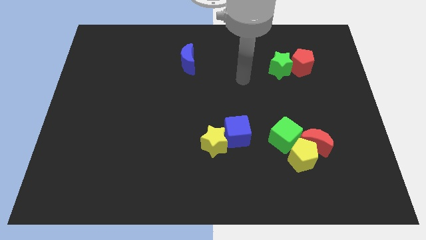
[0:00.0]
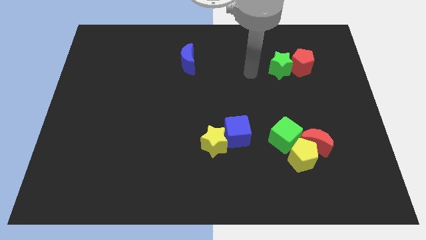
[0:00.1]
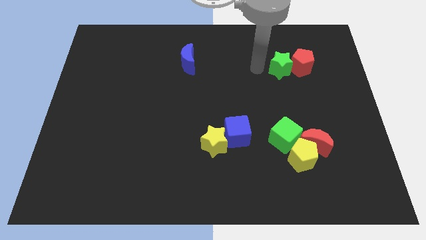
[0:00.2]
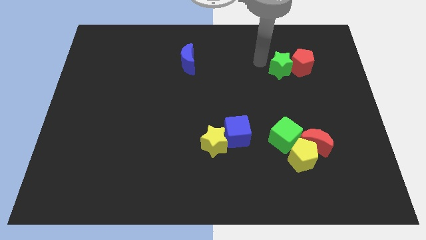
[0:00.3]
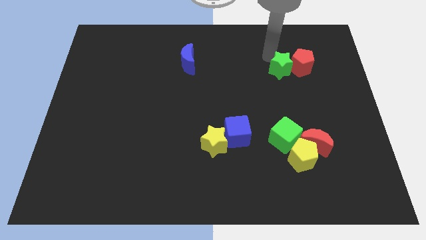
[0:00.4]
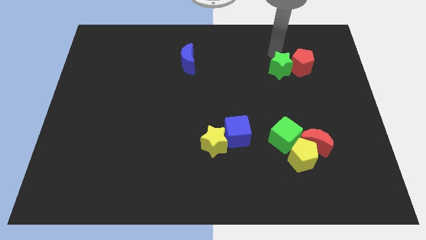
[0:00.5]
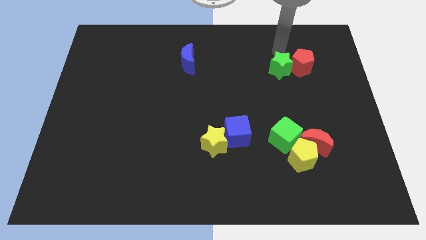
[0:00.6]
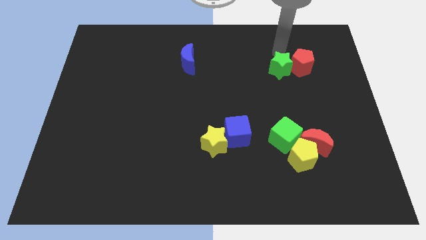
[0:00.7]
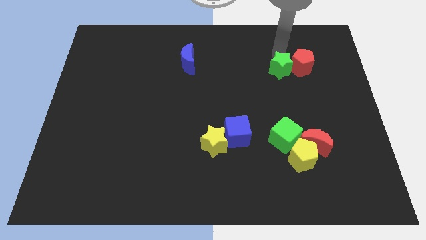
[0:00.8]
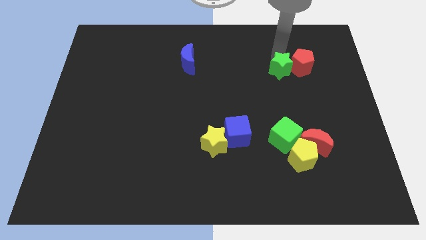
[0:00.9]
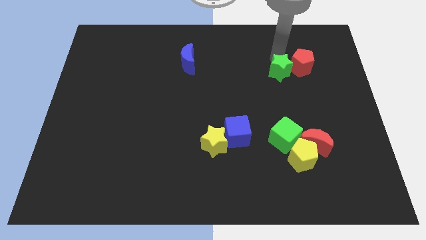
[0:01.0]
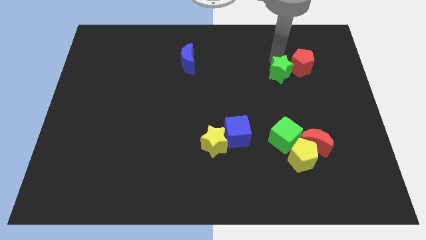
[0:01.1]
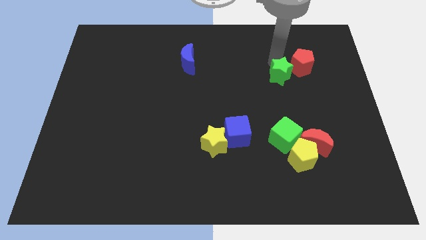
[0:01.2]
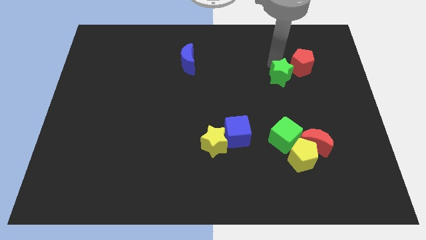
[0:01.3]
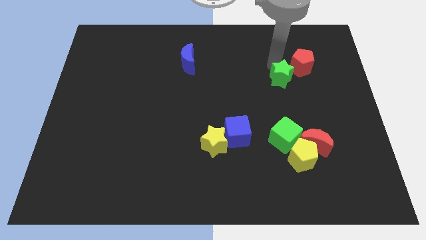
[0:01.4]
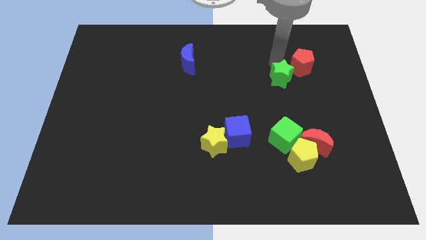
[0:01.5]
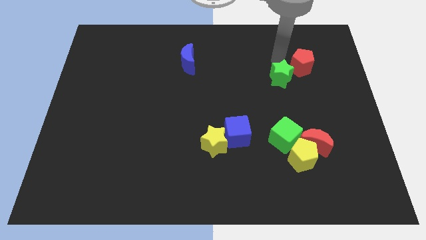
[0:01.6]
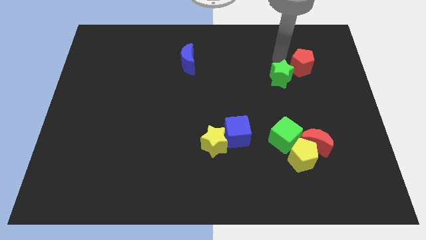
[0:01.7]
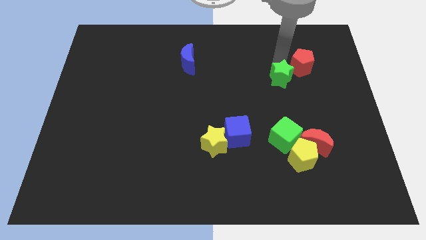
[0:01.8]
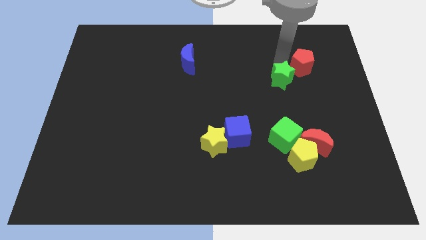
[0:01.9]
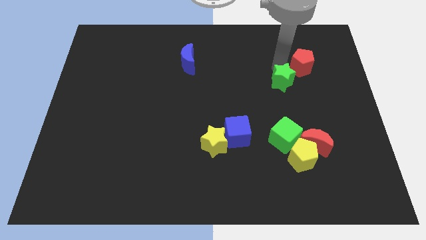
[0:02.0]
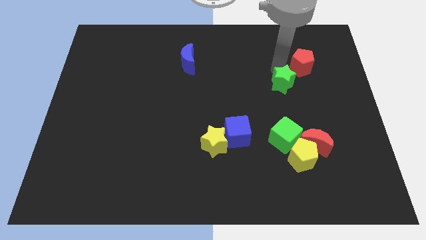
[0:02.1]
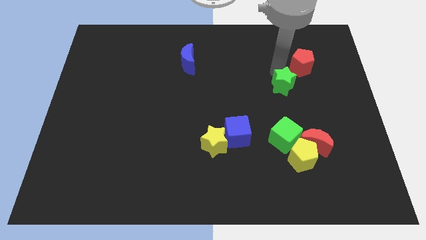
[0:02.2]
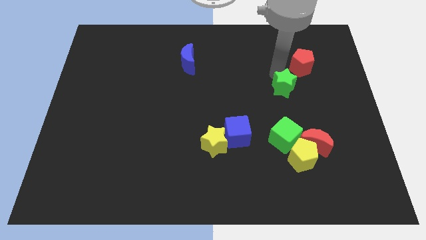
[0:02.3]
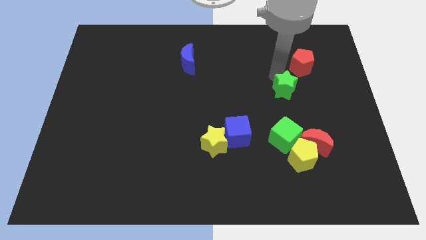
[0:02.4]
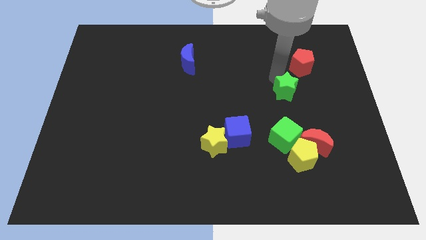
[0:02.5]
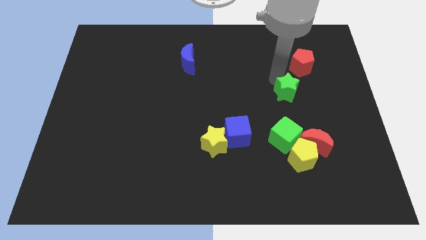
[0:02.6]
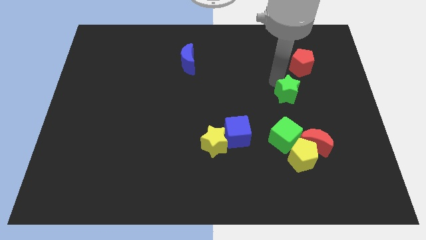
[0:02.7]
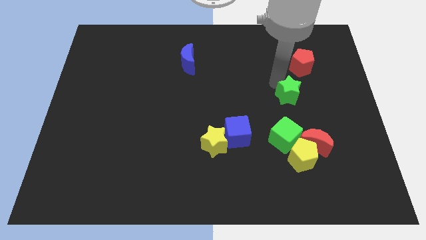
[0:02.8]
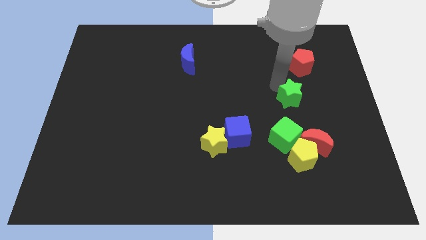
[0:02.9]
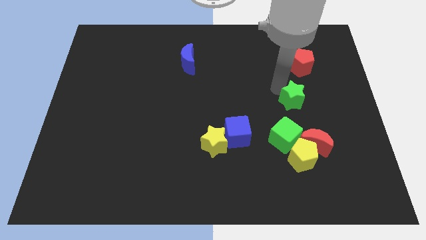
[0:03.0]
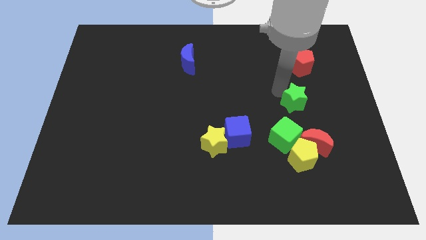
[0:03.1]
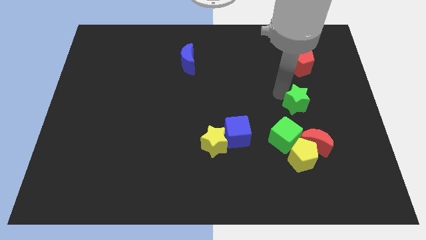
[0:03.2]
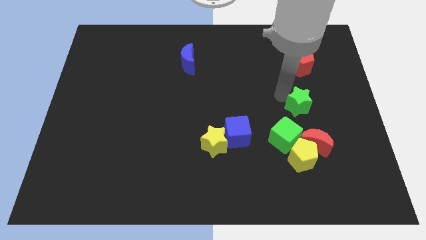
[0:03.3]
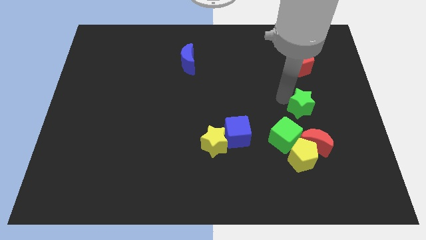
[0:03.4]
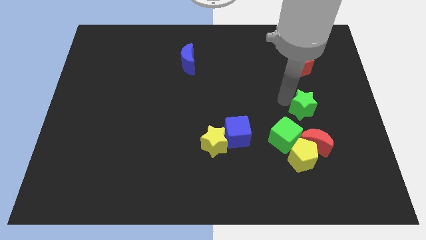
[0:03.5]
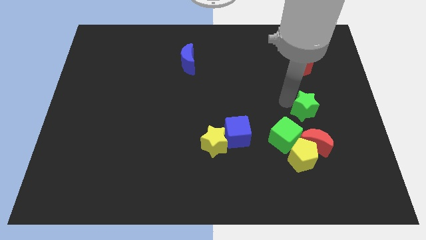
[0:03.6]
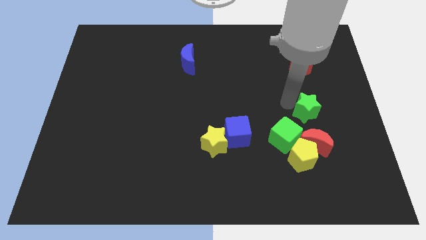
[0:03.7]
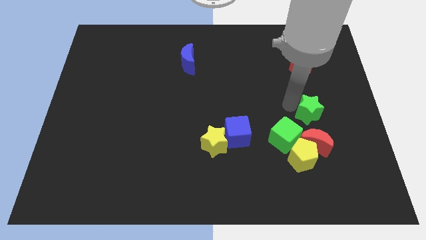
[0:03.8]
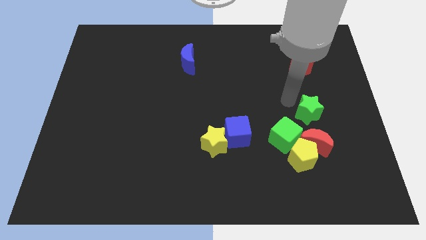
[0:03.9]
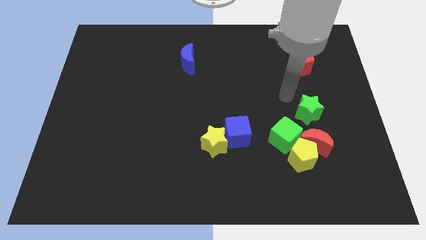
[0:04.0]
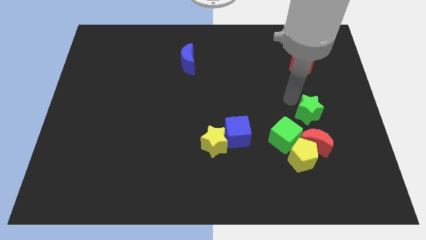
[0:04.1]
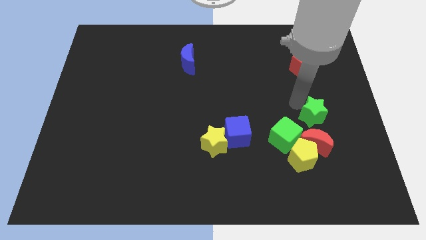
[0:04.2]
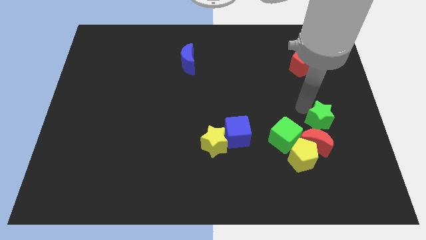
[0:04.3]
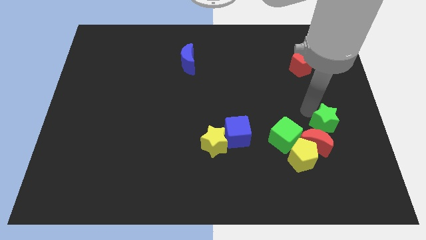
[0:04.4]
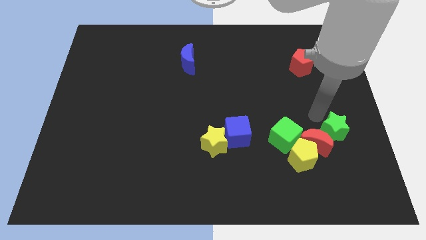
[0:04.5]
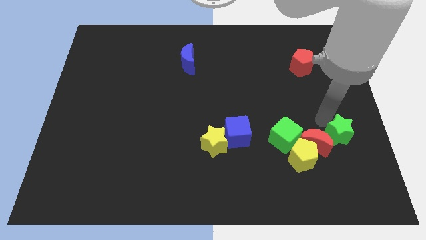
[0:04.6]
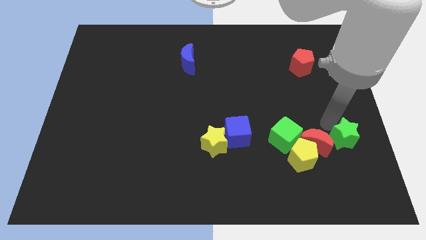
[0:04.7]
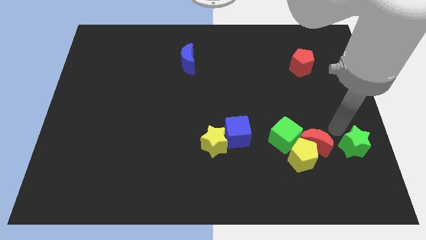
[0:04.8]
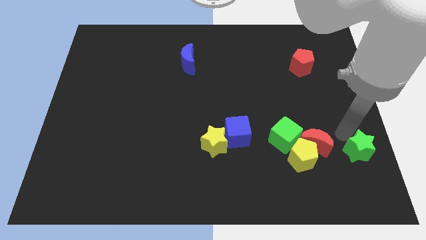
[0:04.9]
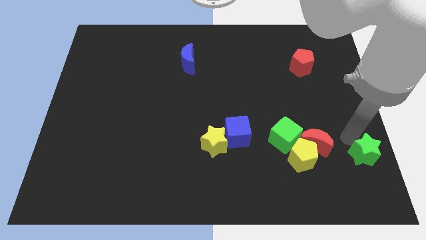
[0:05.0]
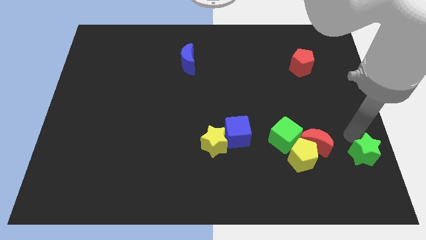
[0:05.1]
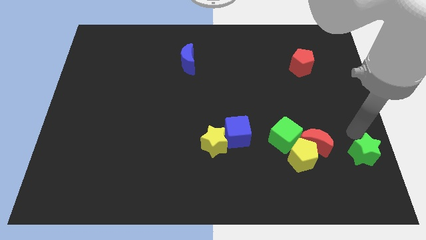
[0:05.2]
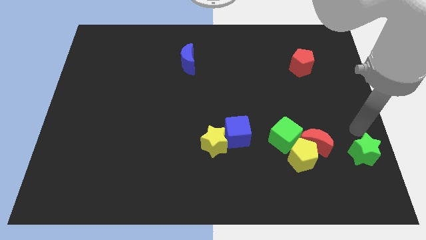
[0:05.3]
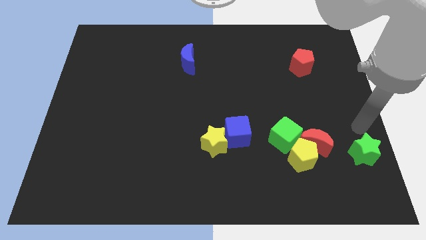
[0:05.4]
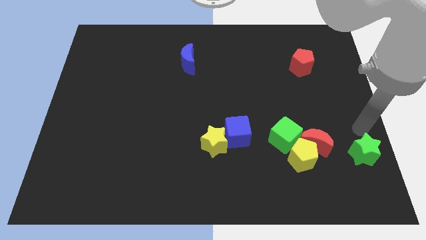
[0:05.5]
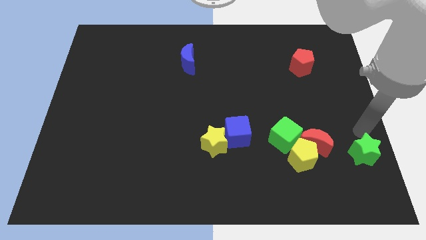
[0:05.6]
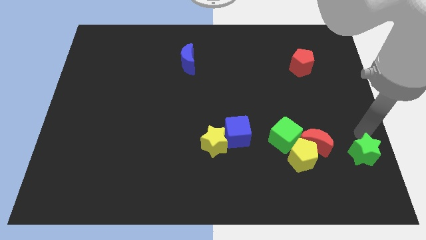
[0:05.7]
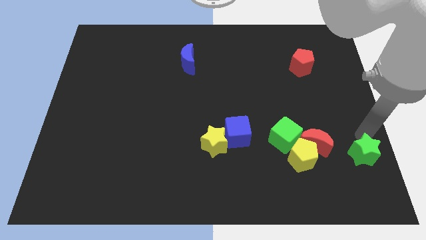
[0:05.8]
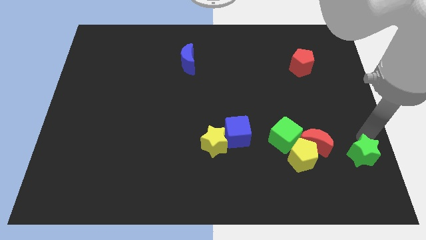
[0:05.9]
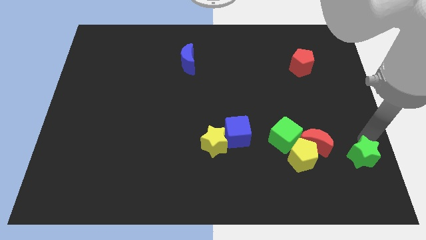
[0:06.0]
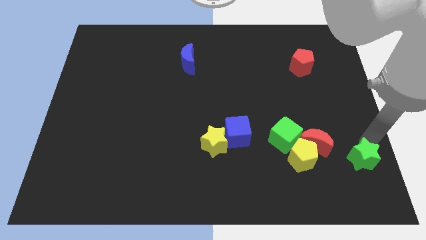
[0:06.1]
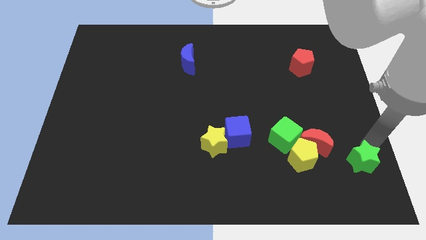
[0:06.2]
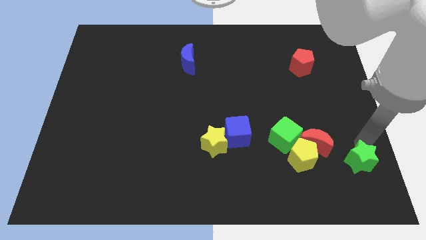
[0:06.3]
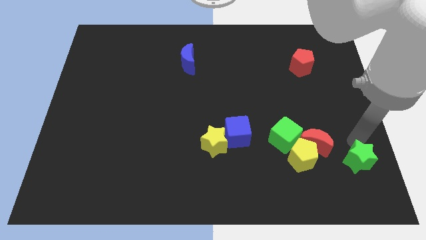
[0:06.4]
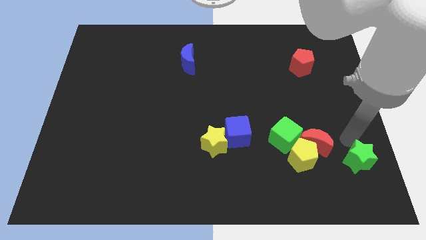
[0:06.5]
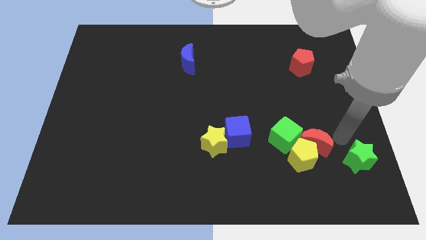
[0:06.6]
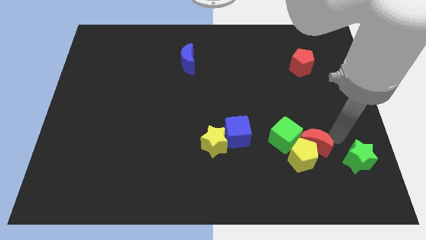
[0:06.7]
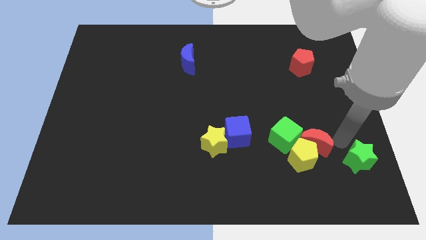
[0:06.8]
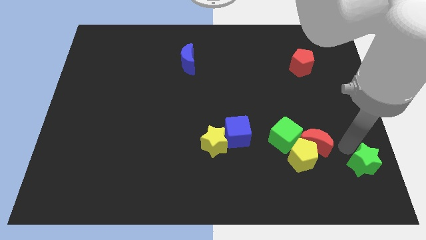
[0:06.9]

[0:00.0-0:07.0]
push the green star to the lower right corner

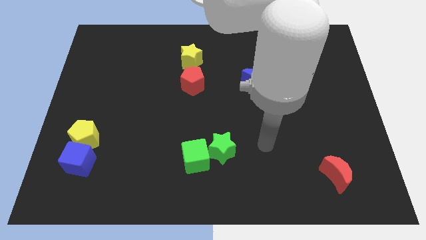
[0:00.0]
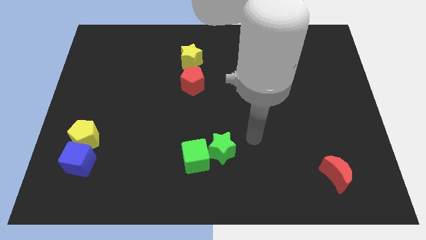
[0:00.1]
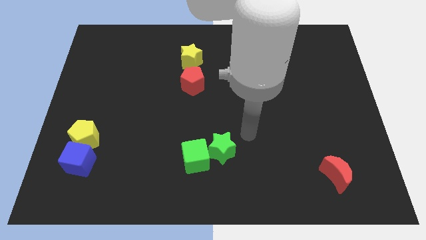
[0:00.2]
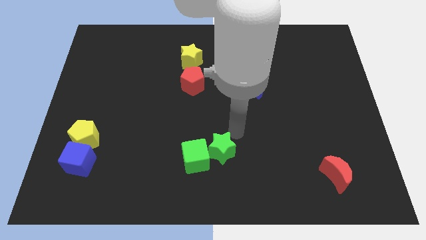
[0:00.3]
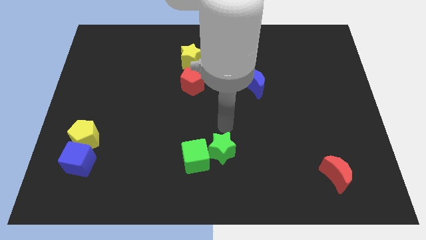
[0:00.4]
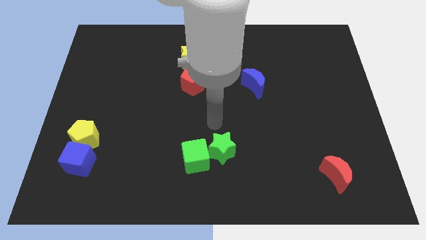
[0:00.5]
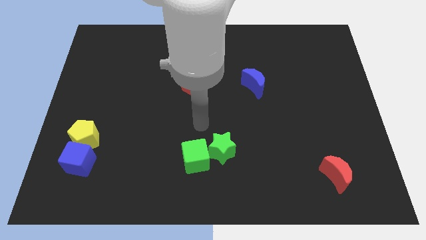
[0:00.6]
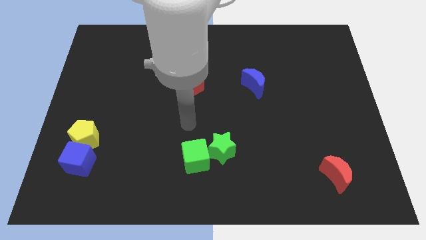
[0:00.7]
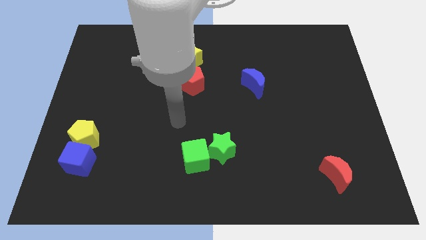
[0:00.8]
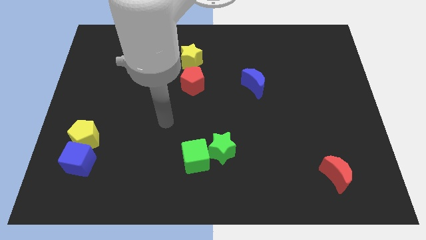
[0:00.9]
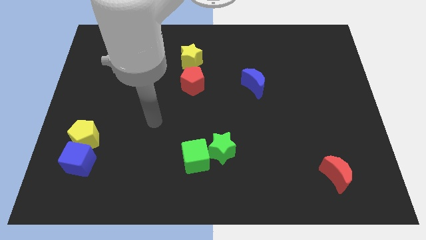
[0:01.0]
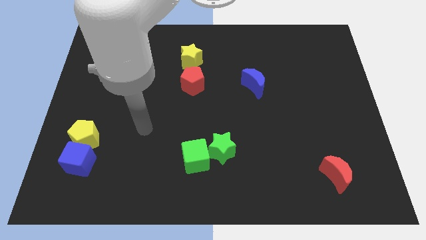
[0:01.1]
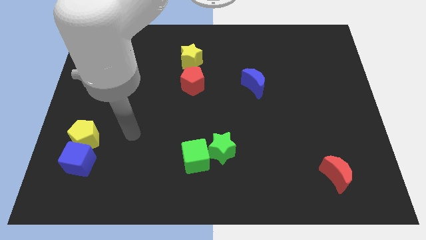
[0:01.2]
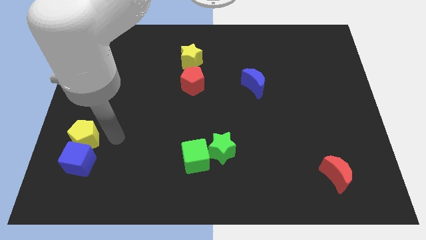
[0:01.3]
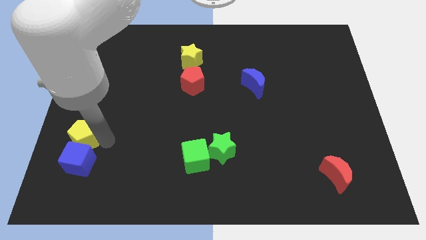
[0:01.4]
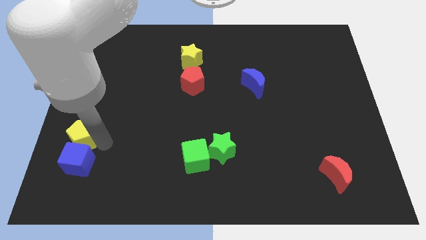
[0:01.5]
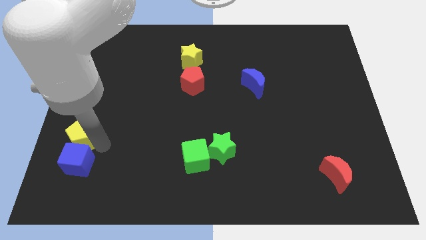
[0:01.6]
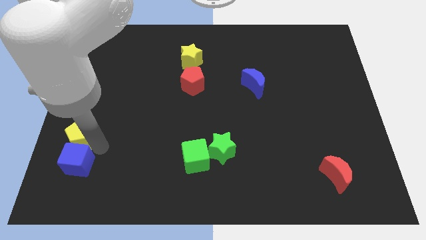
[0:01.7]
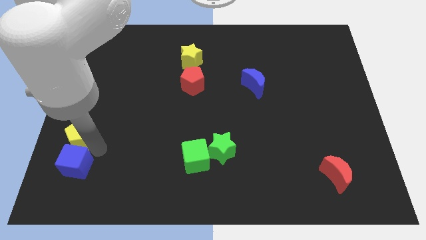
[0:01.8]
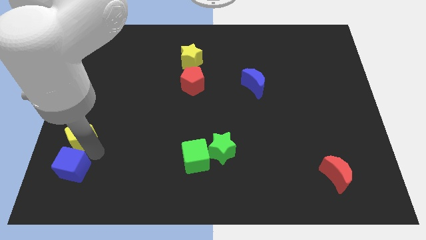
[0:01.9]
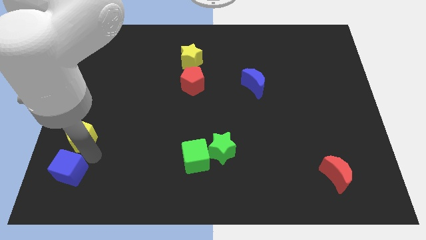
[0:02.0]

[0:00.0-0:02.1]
push the blue cube to the lower left corner
